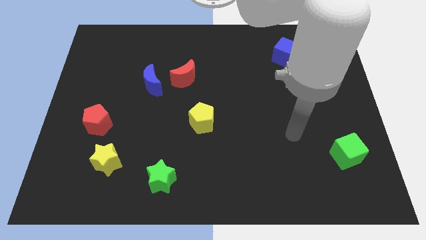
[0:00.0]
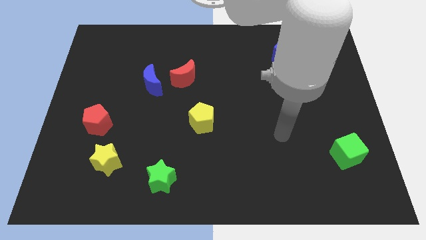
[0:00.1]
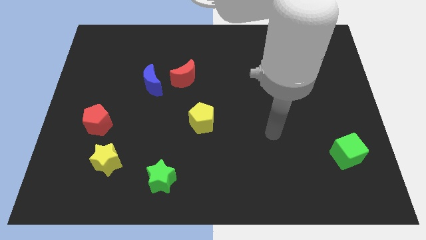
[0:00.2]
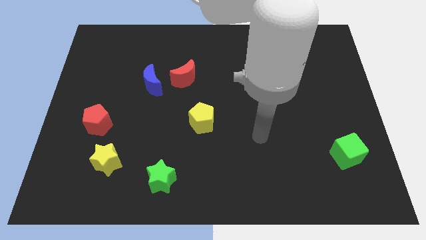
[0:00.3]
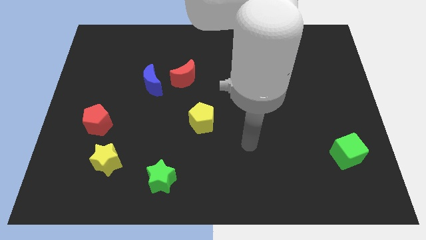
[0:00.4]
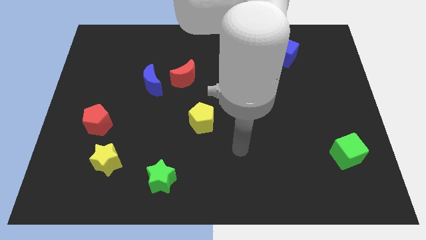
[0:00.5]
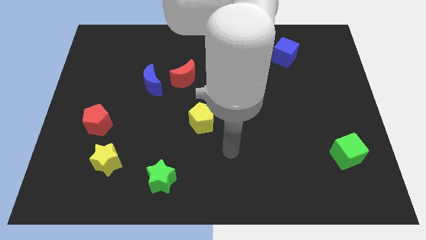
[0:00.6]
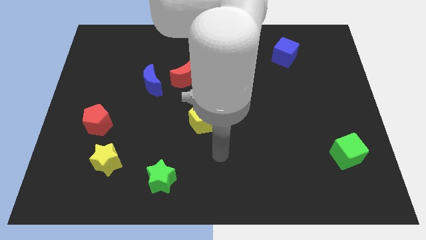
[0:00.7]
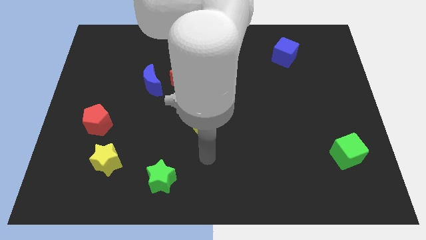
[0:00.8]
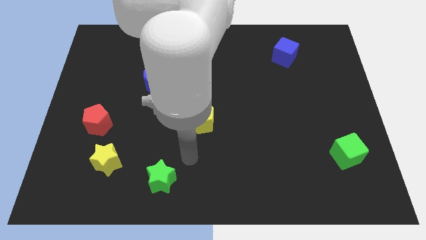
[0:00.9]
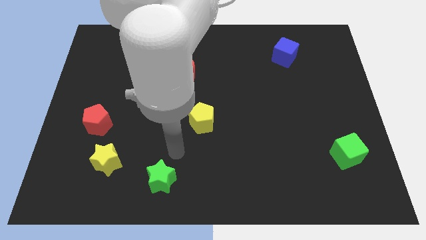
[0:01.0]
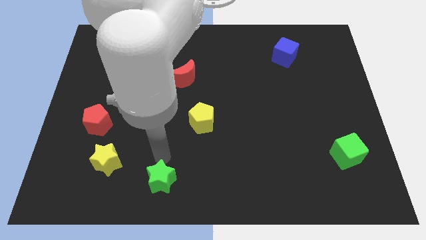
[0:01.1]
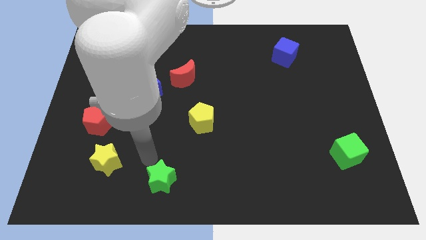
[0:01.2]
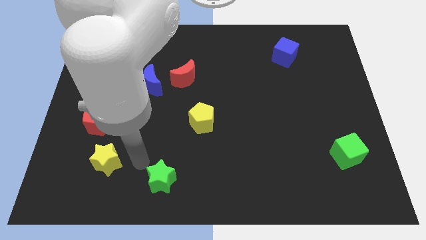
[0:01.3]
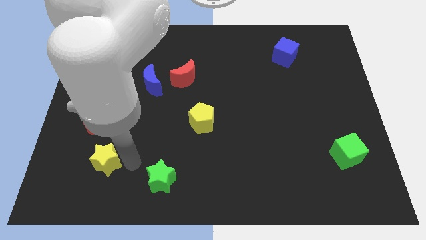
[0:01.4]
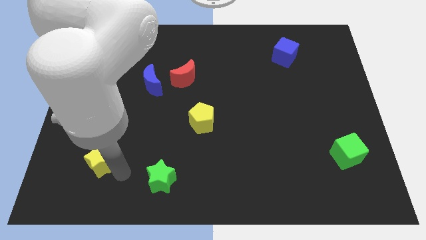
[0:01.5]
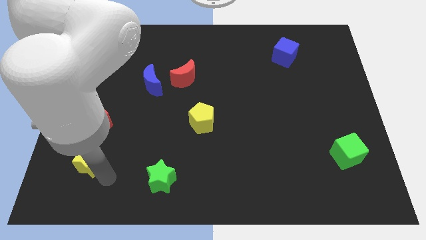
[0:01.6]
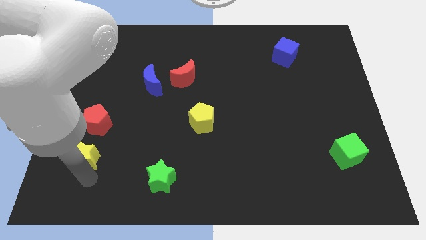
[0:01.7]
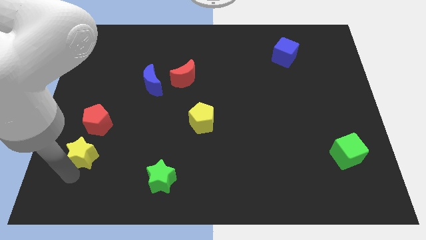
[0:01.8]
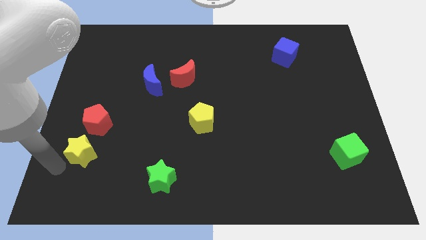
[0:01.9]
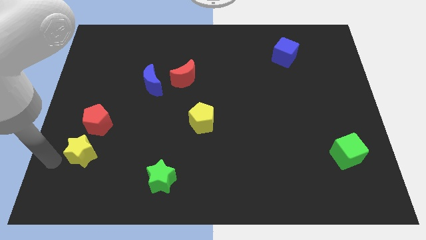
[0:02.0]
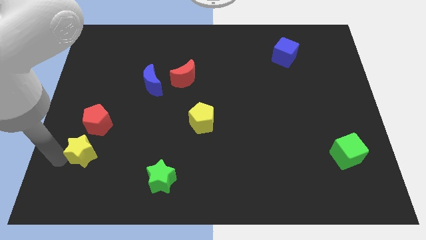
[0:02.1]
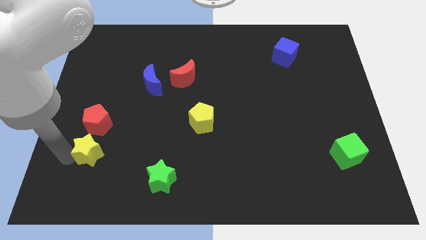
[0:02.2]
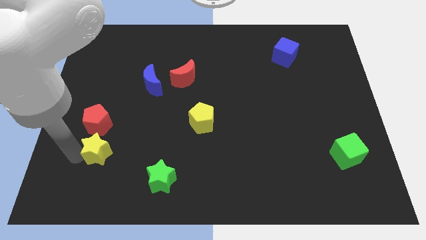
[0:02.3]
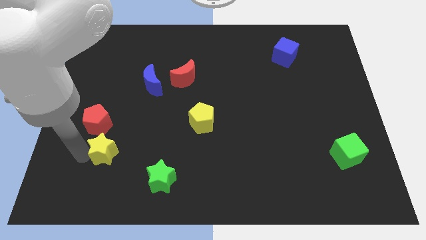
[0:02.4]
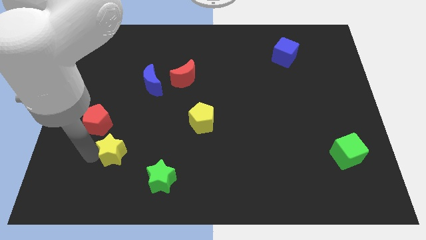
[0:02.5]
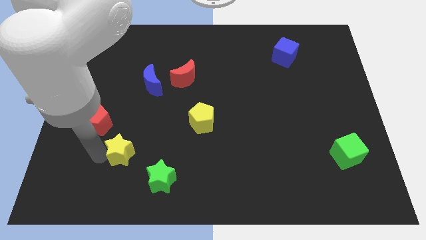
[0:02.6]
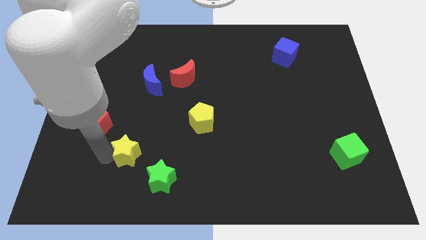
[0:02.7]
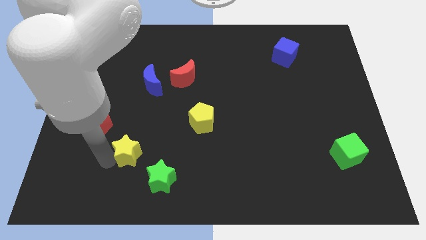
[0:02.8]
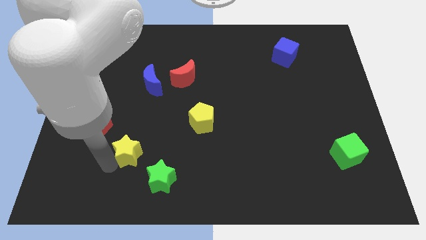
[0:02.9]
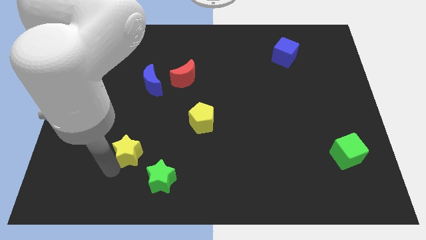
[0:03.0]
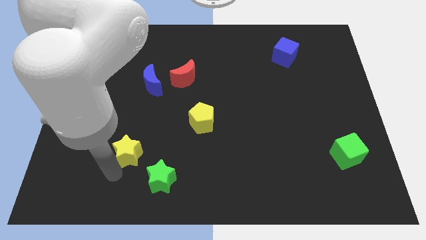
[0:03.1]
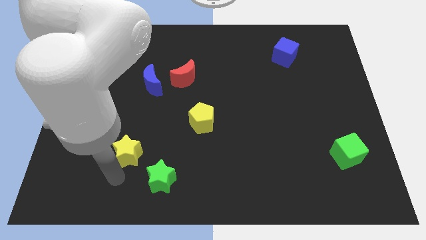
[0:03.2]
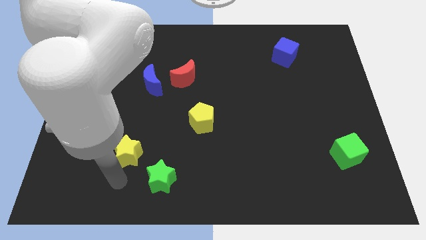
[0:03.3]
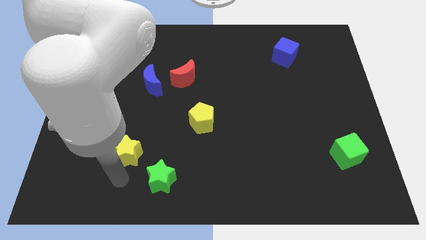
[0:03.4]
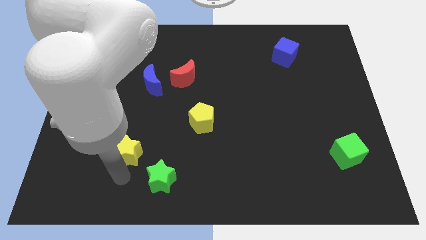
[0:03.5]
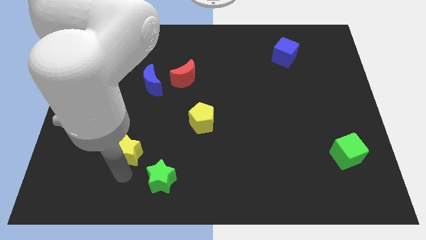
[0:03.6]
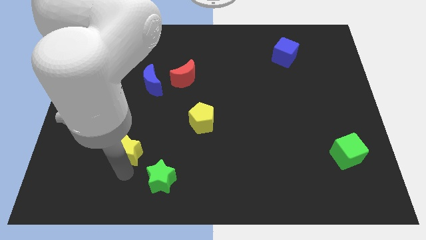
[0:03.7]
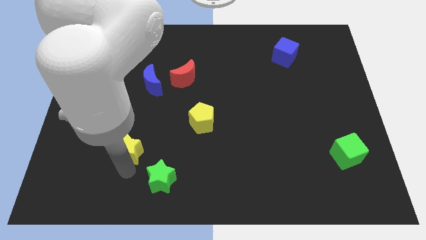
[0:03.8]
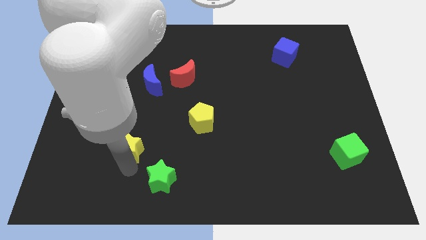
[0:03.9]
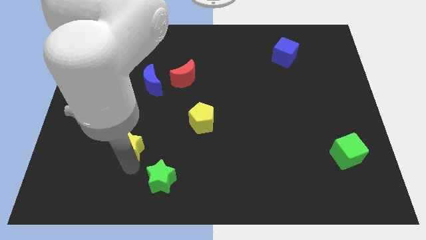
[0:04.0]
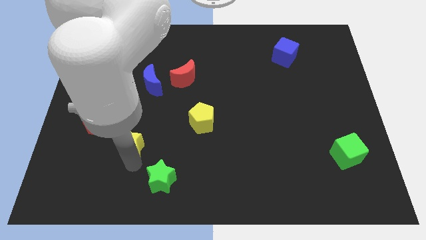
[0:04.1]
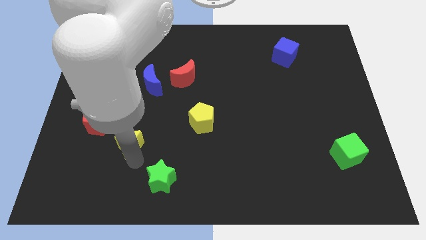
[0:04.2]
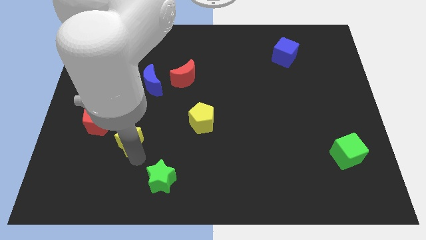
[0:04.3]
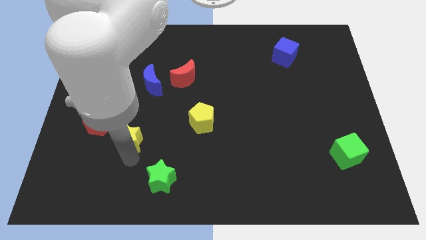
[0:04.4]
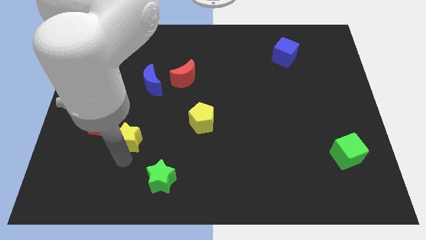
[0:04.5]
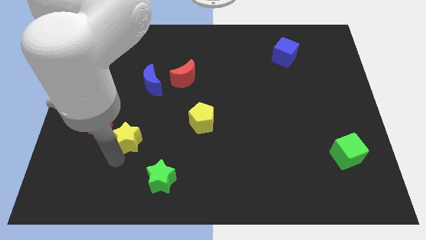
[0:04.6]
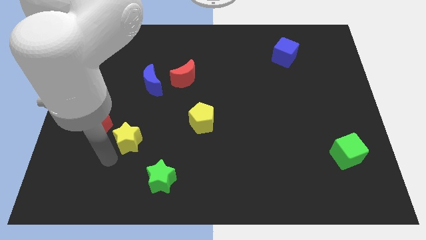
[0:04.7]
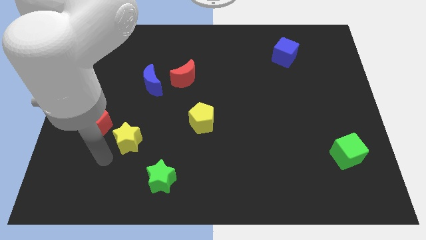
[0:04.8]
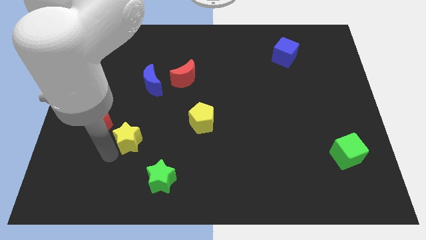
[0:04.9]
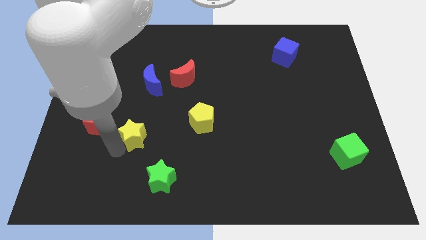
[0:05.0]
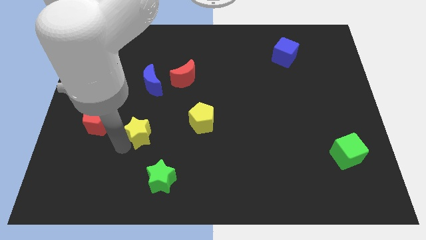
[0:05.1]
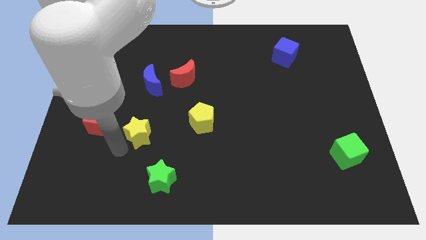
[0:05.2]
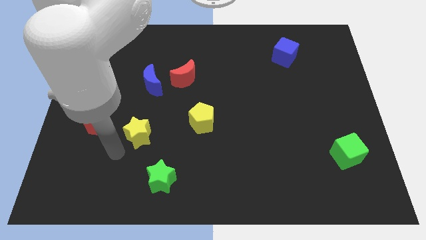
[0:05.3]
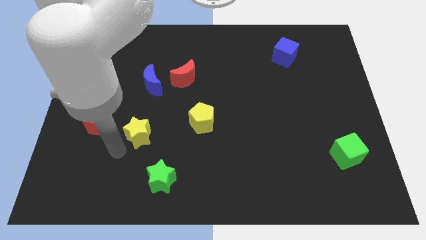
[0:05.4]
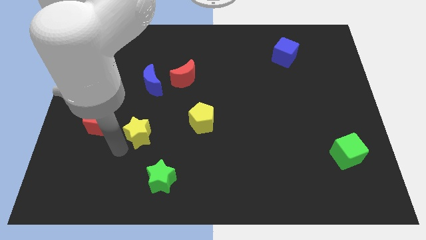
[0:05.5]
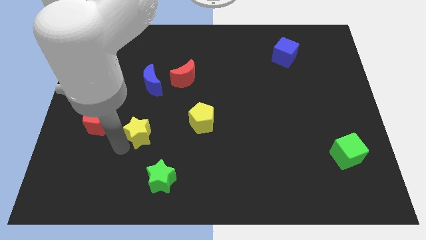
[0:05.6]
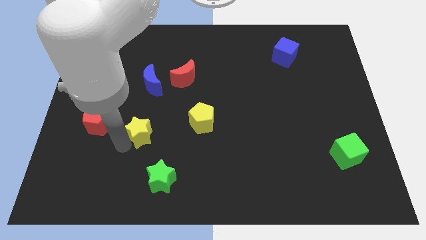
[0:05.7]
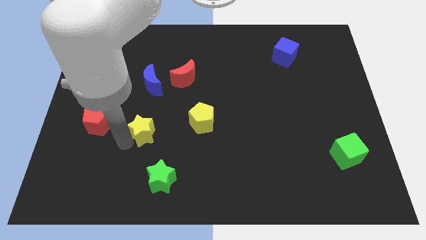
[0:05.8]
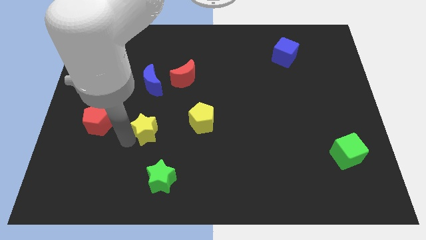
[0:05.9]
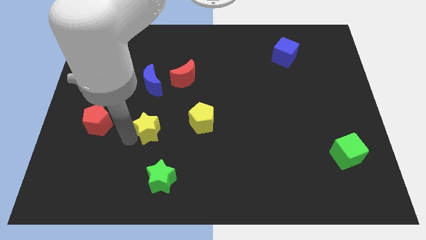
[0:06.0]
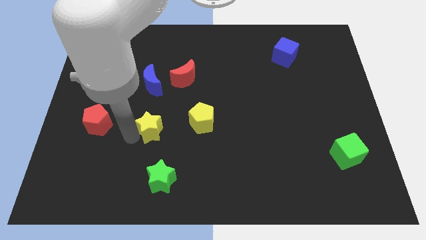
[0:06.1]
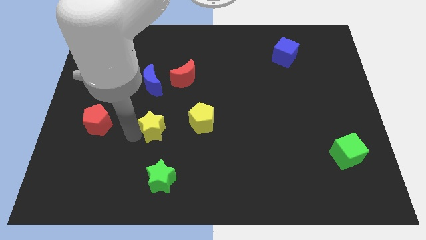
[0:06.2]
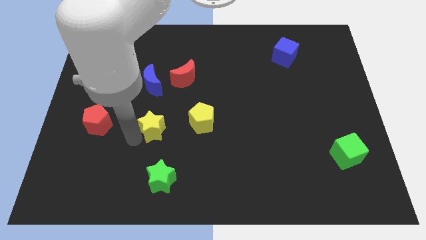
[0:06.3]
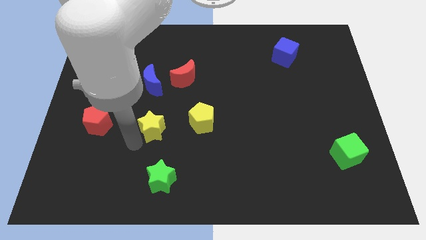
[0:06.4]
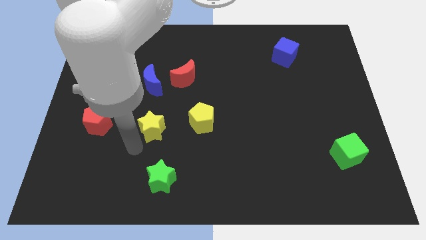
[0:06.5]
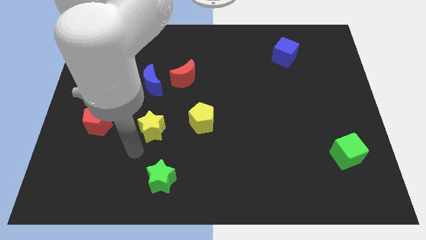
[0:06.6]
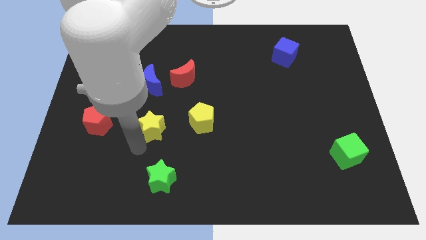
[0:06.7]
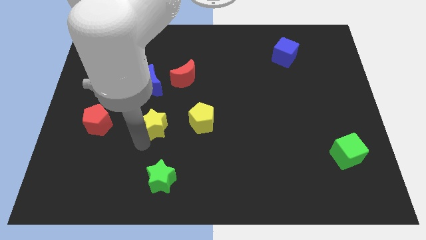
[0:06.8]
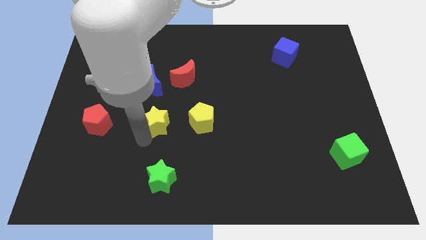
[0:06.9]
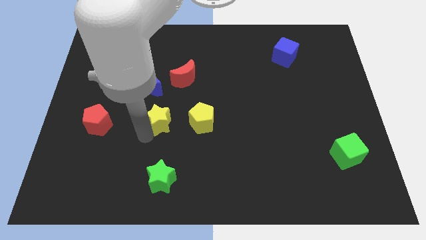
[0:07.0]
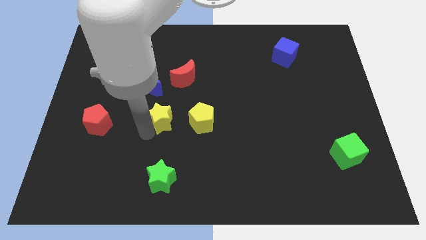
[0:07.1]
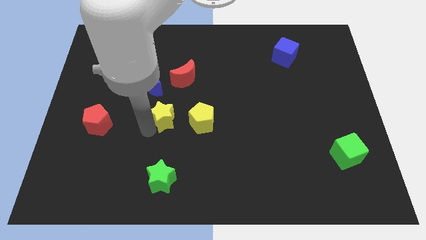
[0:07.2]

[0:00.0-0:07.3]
put the yellow star to the center of the board
